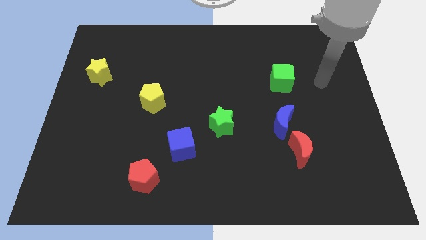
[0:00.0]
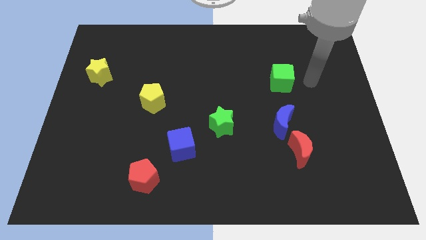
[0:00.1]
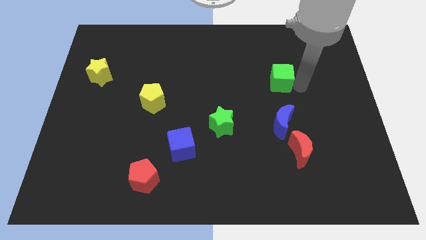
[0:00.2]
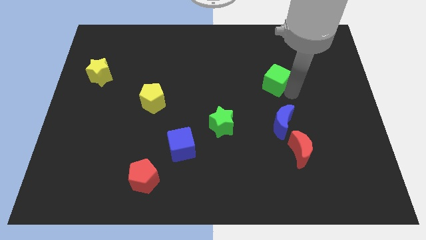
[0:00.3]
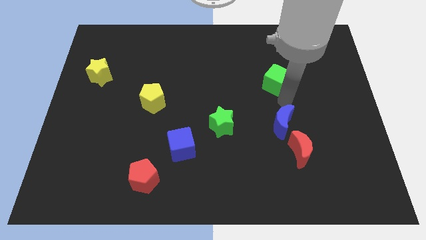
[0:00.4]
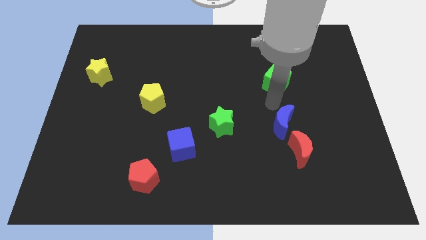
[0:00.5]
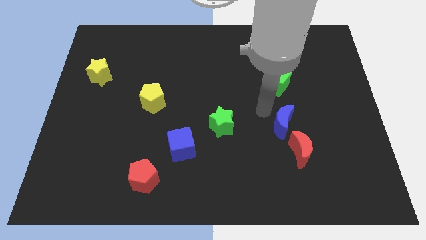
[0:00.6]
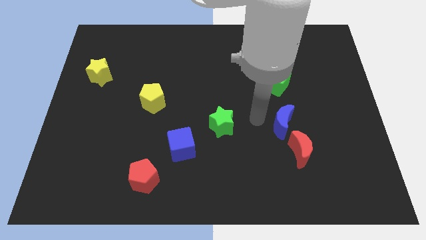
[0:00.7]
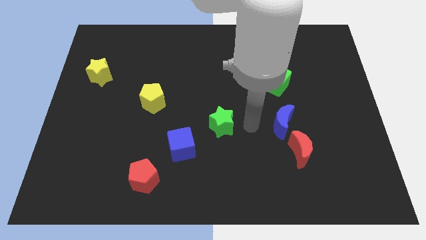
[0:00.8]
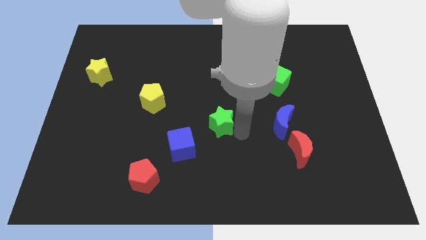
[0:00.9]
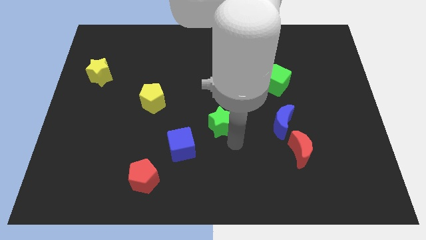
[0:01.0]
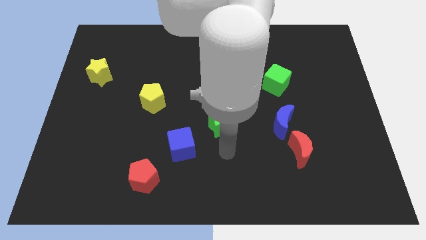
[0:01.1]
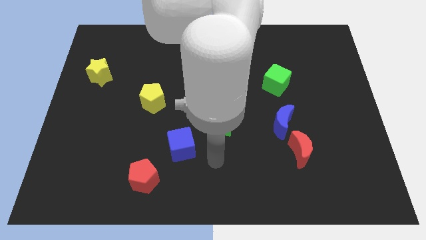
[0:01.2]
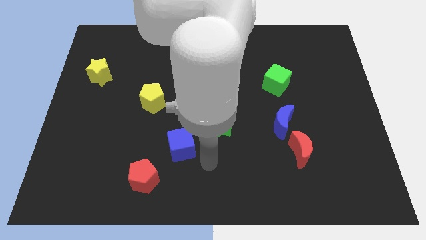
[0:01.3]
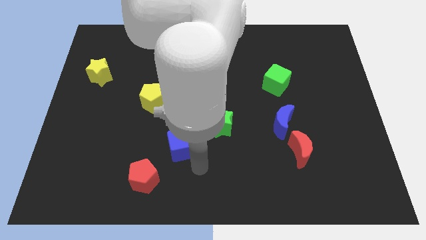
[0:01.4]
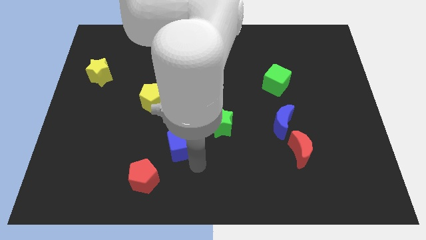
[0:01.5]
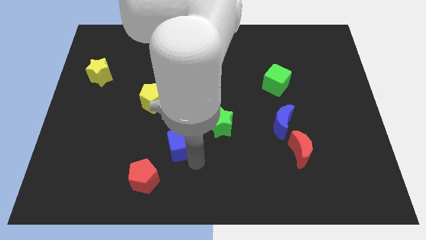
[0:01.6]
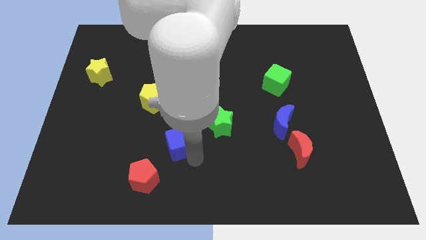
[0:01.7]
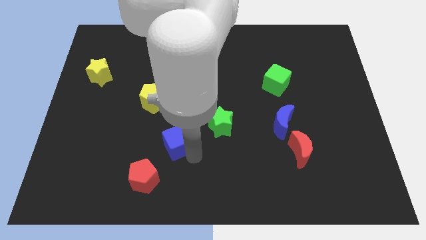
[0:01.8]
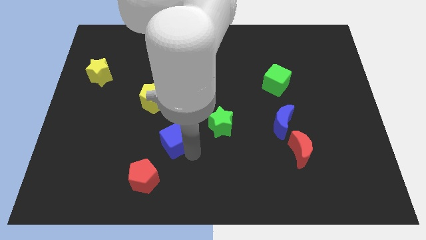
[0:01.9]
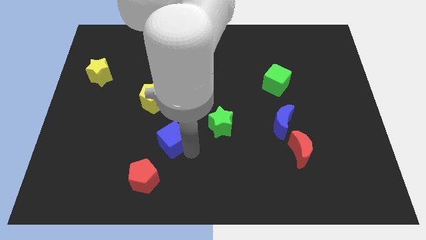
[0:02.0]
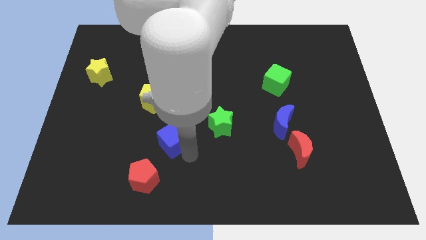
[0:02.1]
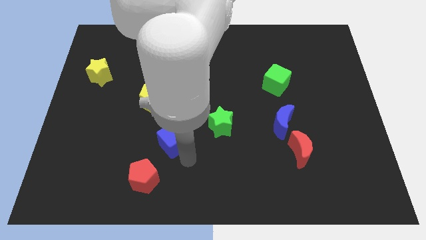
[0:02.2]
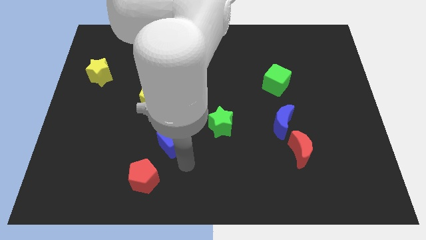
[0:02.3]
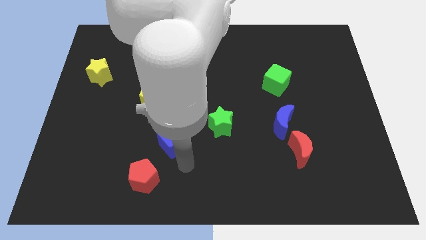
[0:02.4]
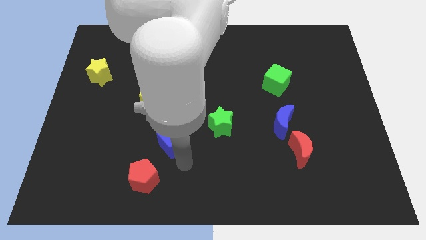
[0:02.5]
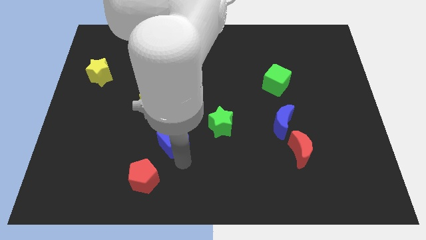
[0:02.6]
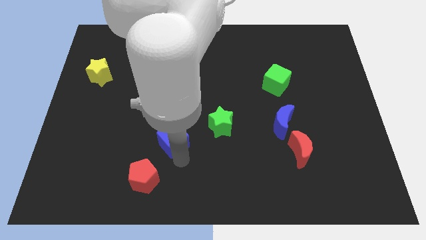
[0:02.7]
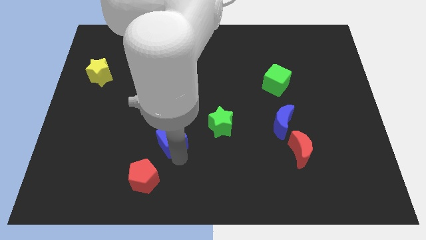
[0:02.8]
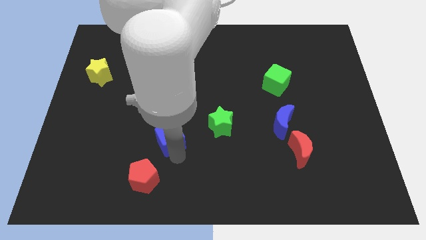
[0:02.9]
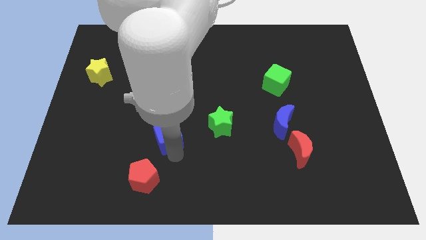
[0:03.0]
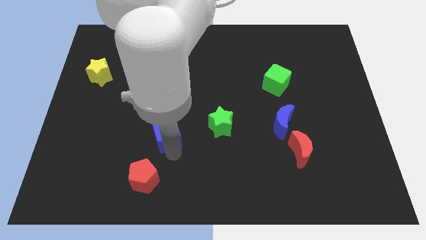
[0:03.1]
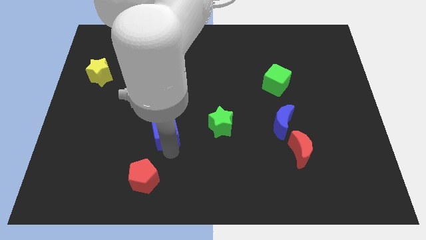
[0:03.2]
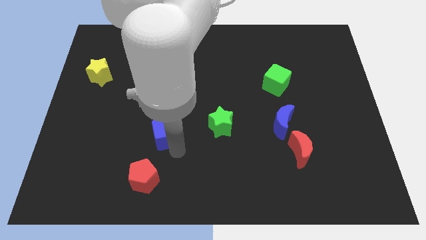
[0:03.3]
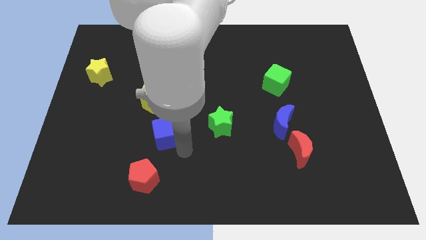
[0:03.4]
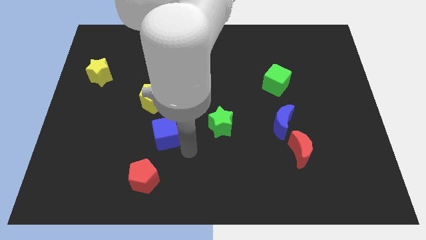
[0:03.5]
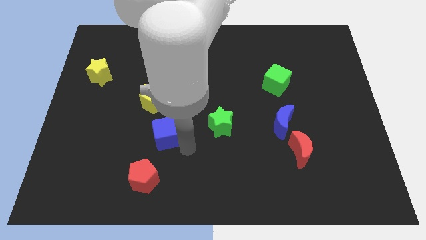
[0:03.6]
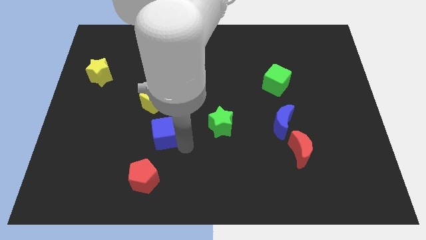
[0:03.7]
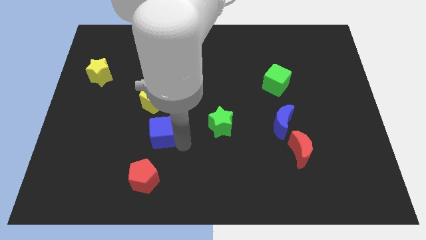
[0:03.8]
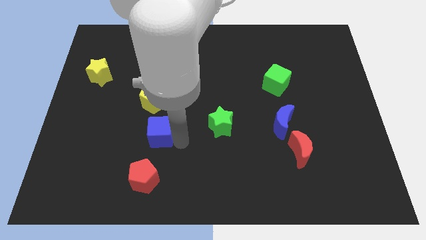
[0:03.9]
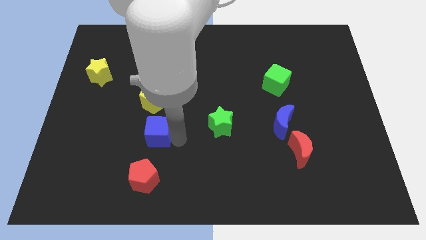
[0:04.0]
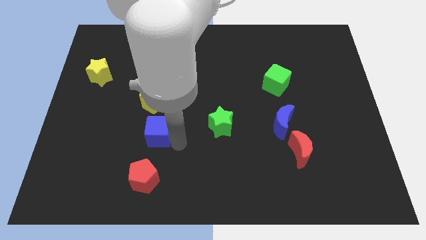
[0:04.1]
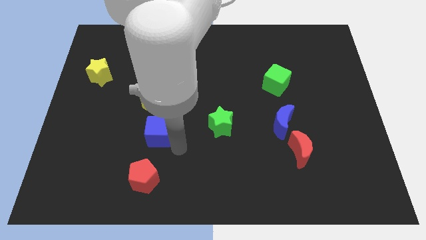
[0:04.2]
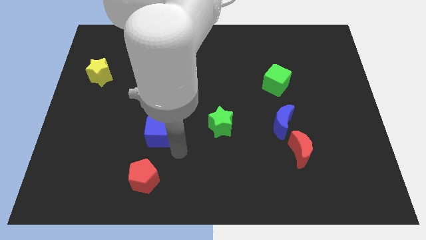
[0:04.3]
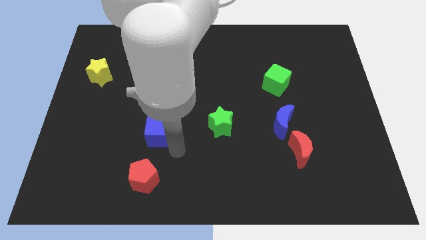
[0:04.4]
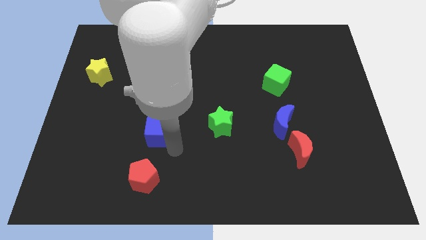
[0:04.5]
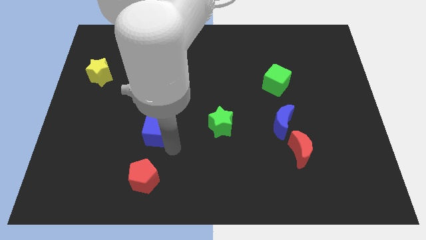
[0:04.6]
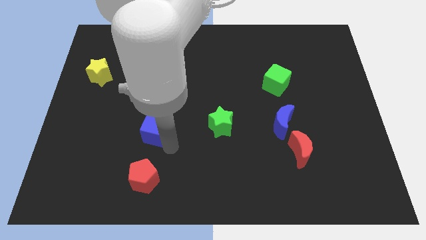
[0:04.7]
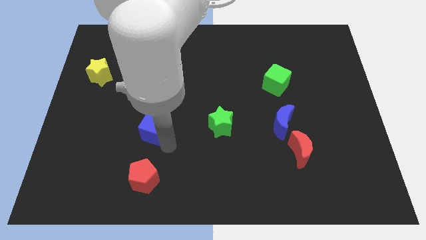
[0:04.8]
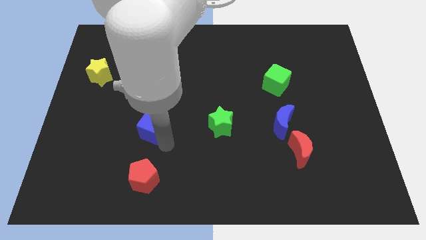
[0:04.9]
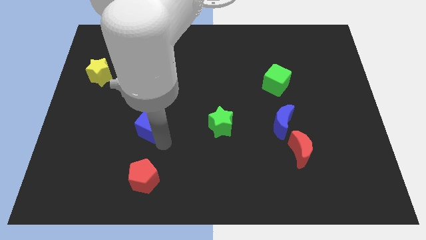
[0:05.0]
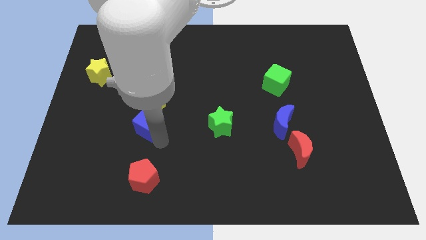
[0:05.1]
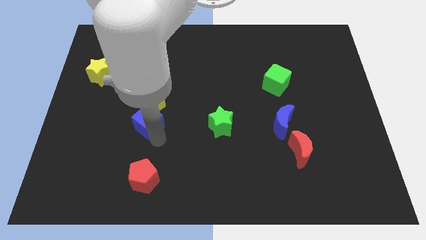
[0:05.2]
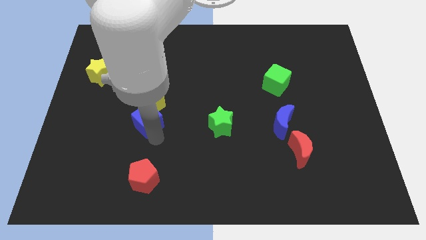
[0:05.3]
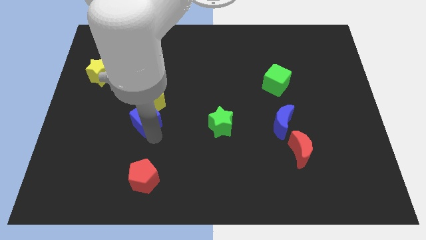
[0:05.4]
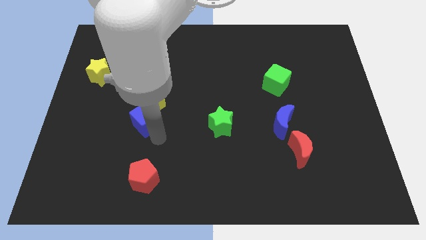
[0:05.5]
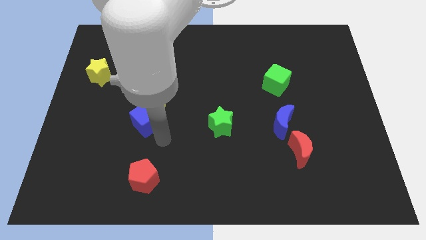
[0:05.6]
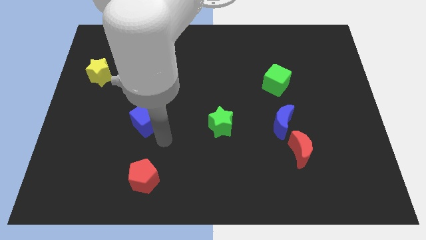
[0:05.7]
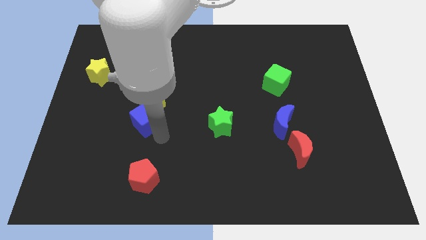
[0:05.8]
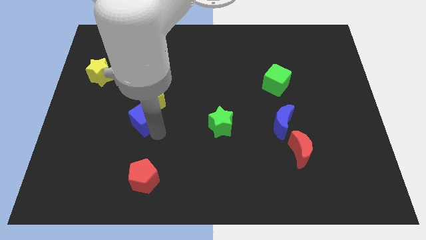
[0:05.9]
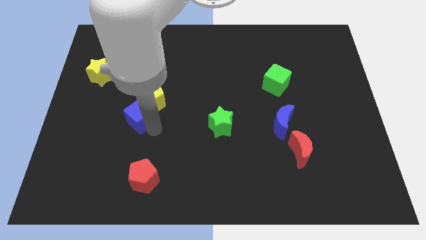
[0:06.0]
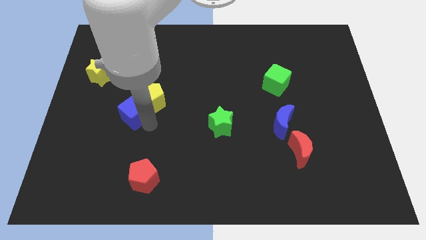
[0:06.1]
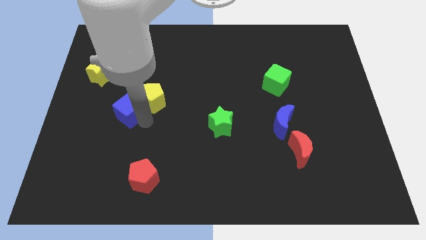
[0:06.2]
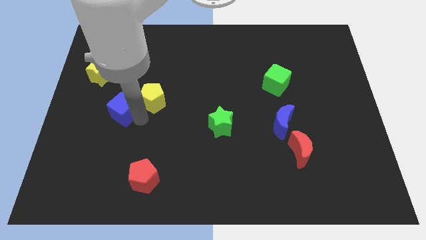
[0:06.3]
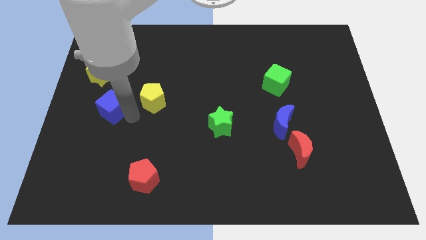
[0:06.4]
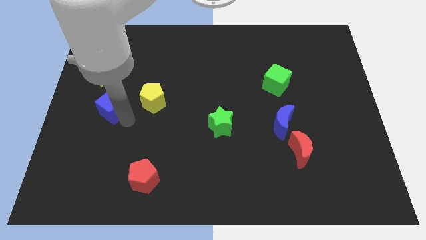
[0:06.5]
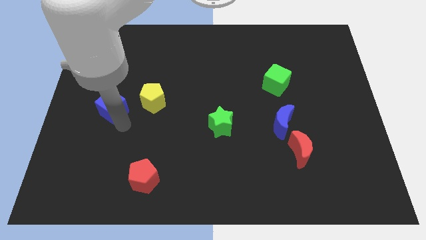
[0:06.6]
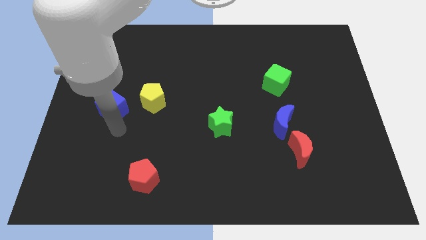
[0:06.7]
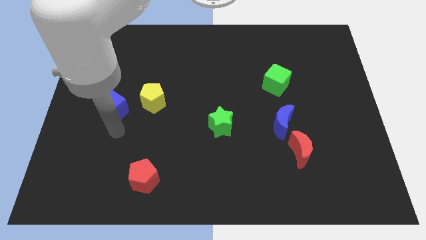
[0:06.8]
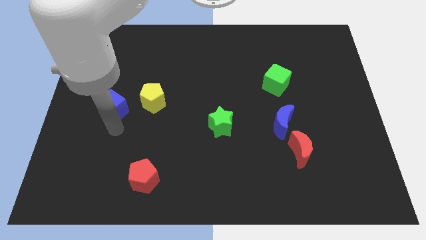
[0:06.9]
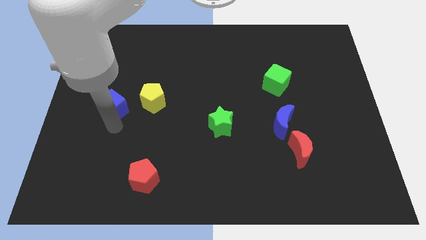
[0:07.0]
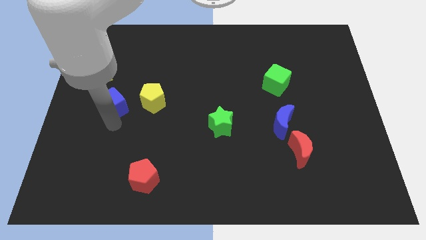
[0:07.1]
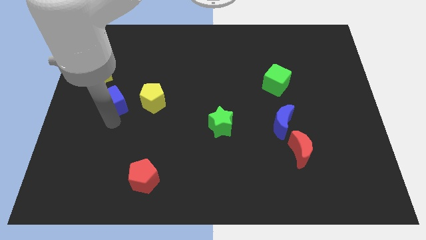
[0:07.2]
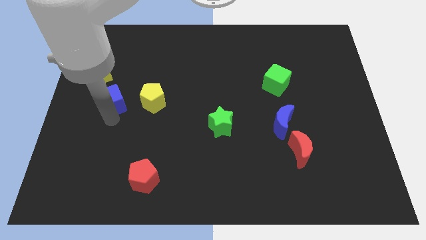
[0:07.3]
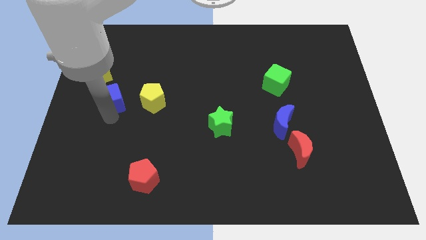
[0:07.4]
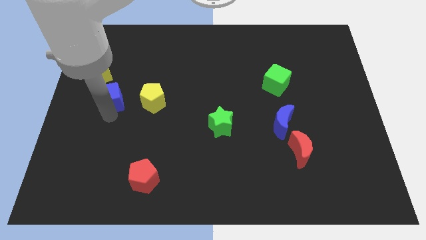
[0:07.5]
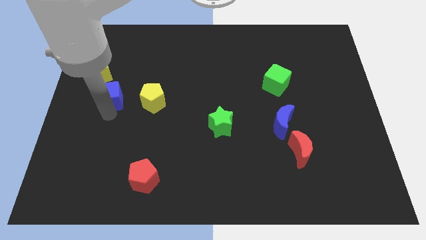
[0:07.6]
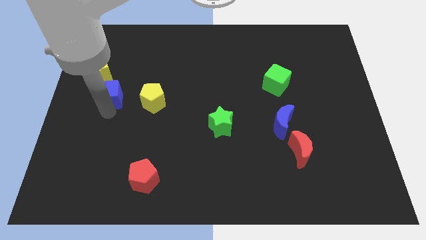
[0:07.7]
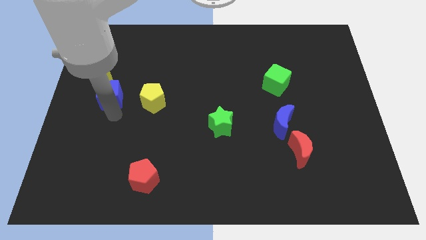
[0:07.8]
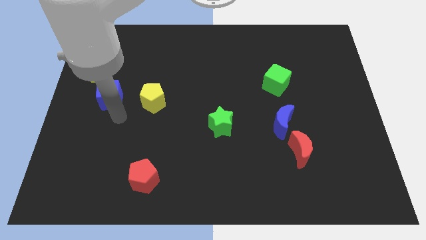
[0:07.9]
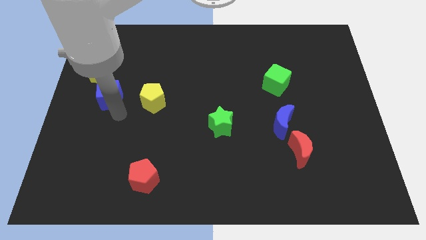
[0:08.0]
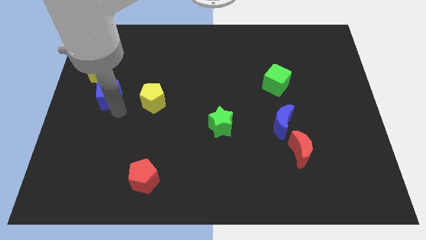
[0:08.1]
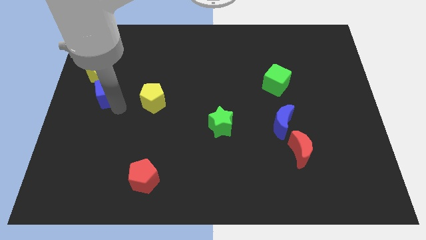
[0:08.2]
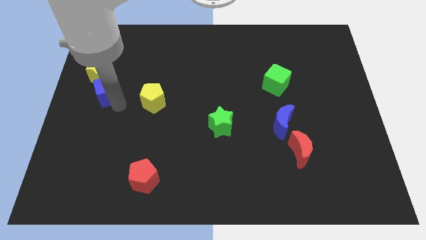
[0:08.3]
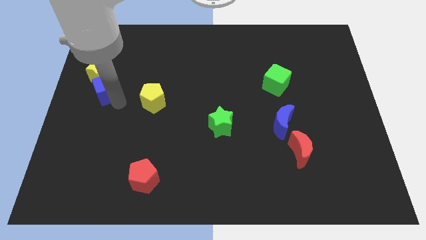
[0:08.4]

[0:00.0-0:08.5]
move the blue cube next to the yellow star
